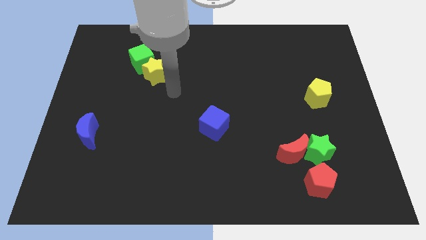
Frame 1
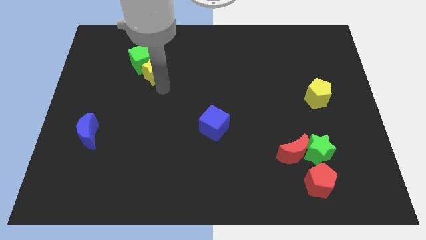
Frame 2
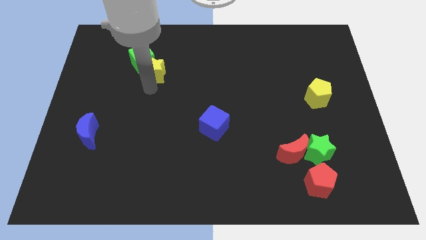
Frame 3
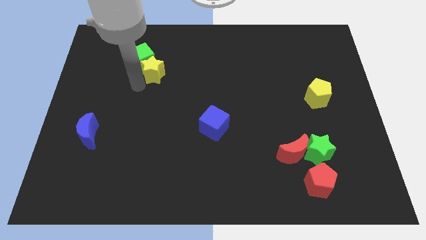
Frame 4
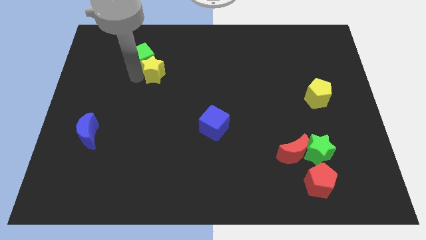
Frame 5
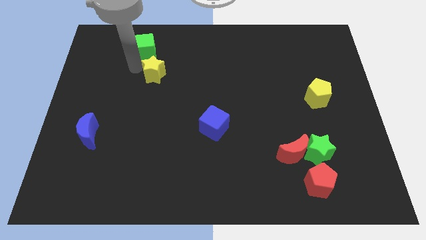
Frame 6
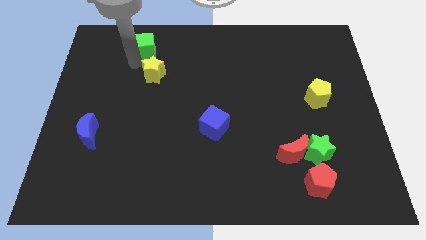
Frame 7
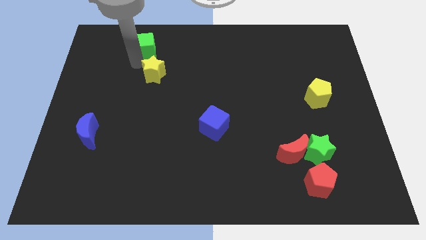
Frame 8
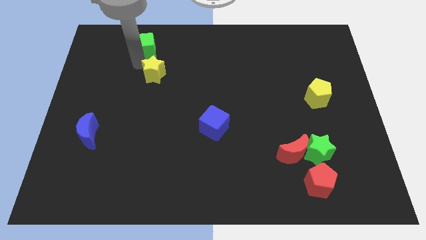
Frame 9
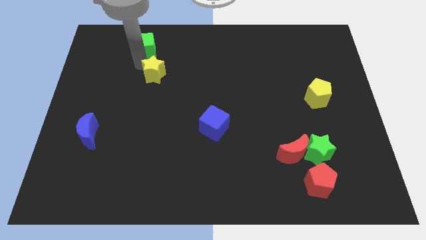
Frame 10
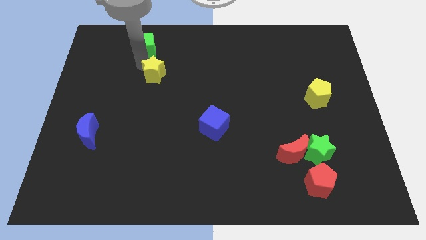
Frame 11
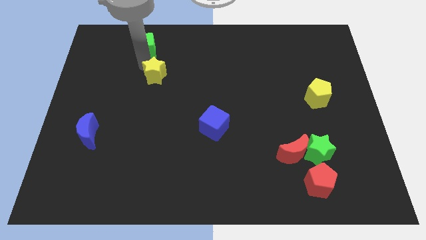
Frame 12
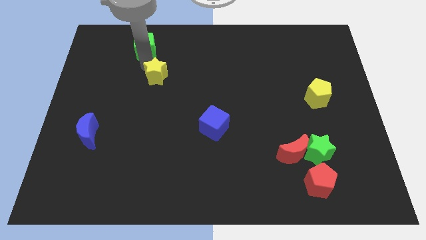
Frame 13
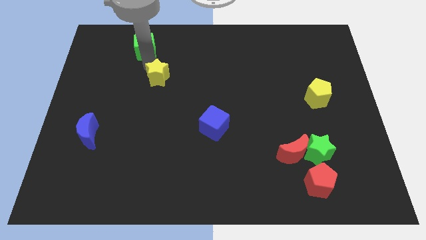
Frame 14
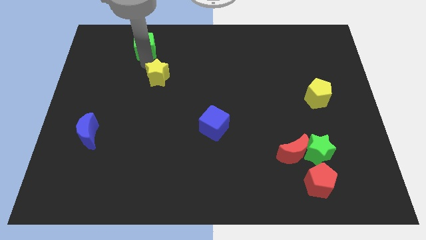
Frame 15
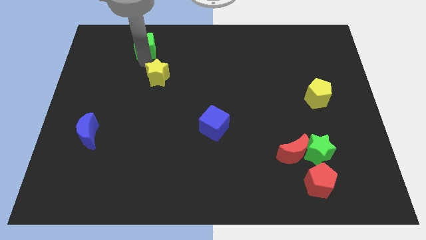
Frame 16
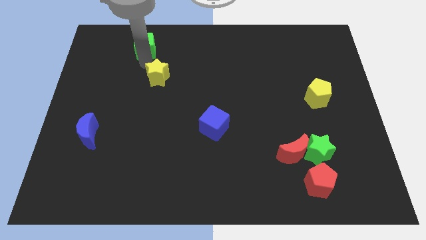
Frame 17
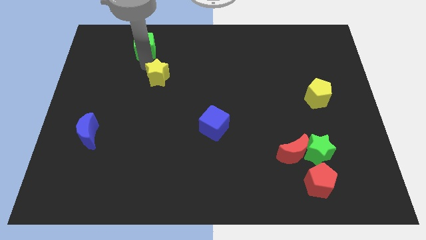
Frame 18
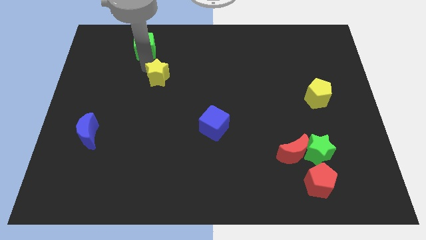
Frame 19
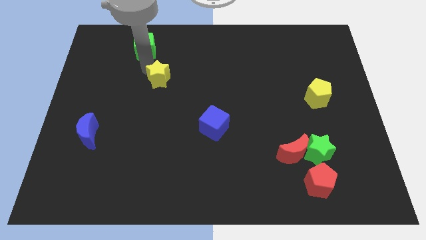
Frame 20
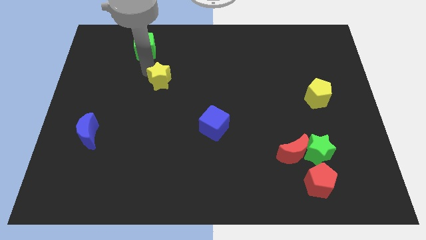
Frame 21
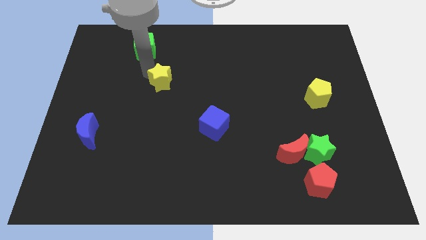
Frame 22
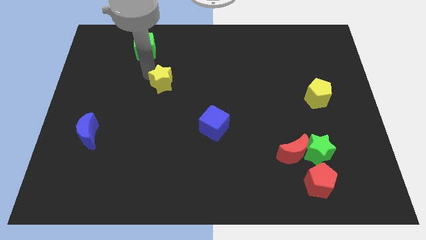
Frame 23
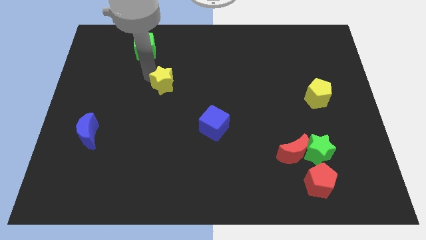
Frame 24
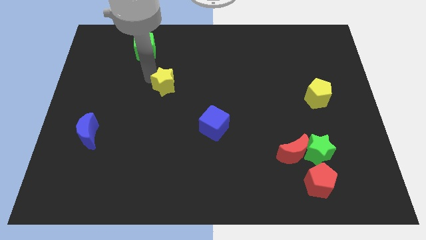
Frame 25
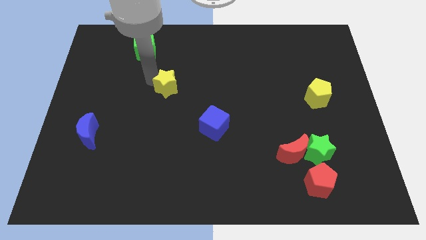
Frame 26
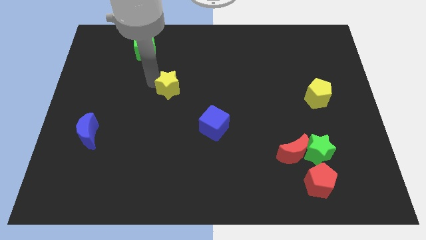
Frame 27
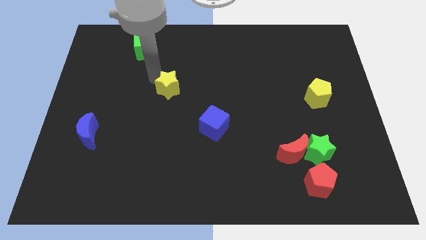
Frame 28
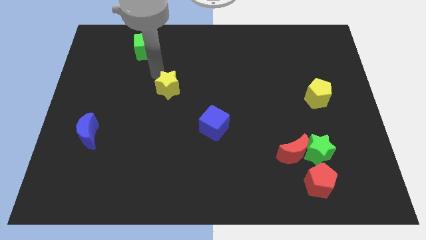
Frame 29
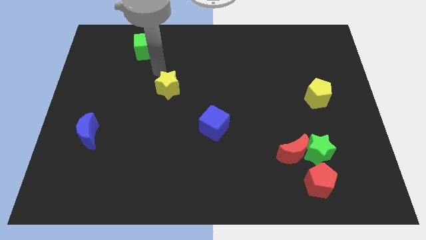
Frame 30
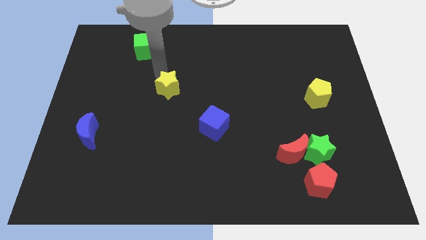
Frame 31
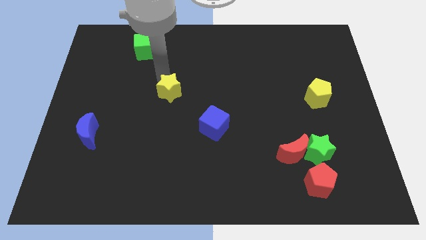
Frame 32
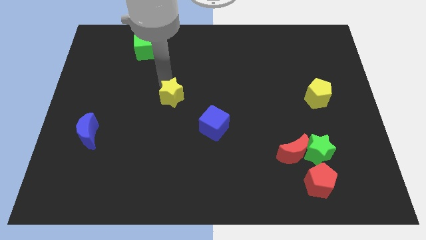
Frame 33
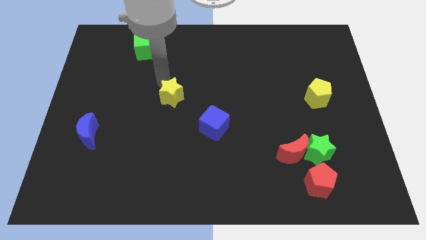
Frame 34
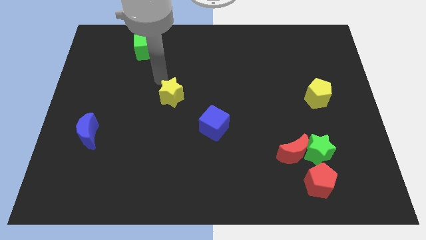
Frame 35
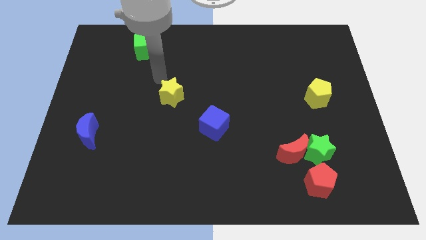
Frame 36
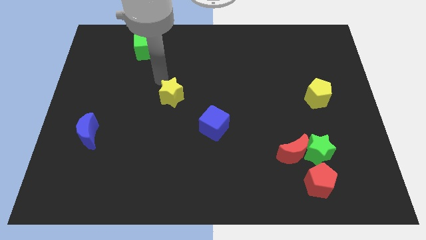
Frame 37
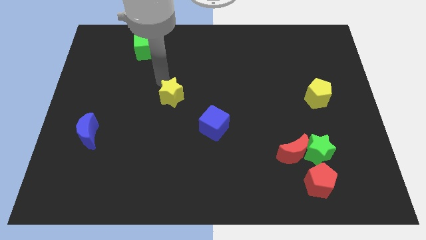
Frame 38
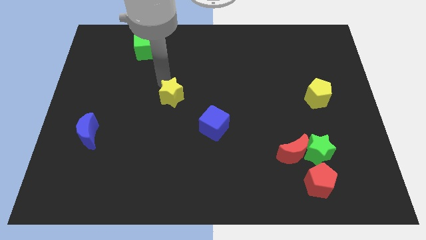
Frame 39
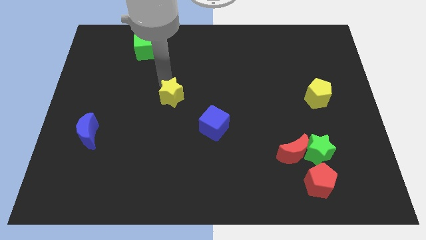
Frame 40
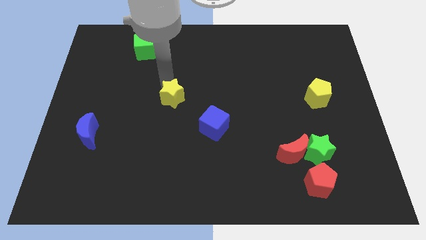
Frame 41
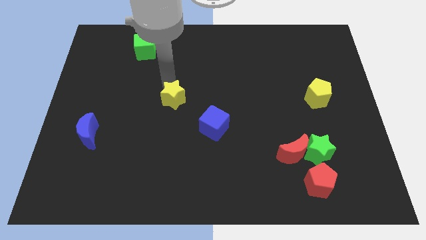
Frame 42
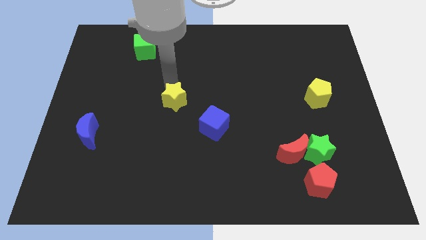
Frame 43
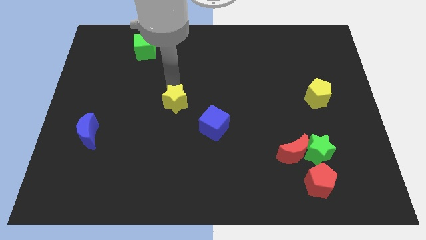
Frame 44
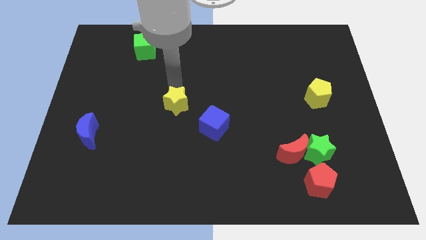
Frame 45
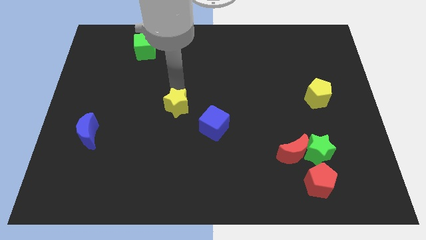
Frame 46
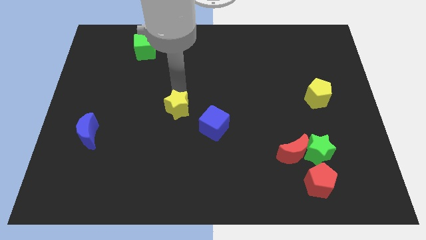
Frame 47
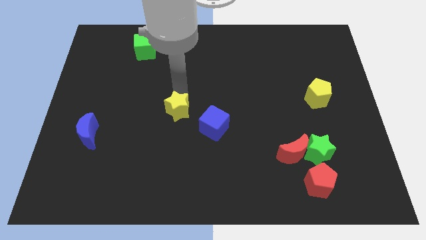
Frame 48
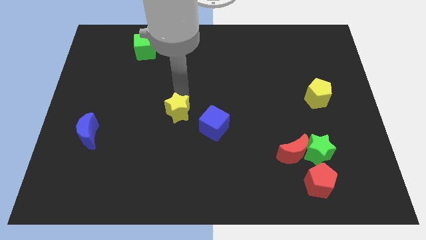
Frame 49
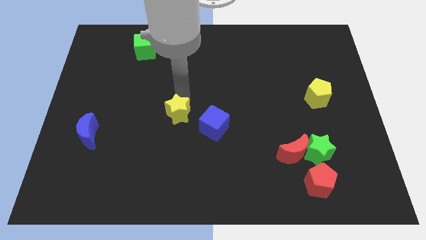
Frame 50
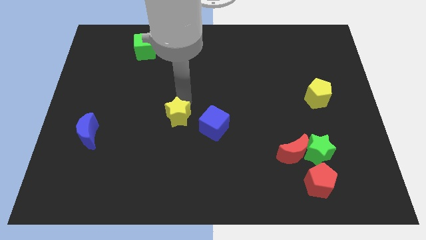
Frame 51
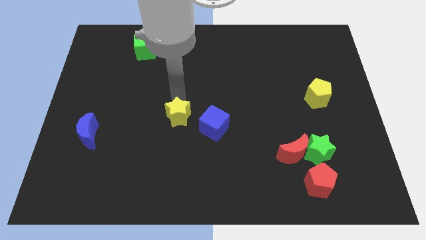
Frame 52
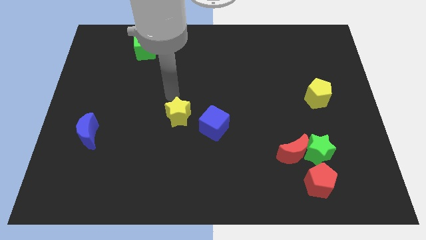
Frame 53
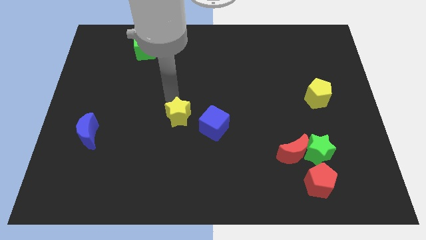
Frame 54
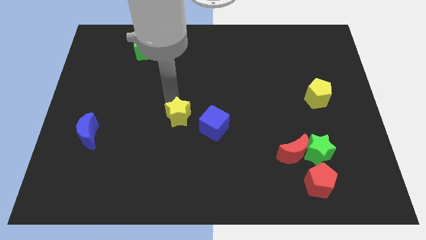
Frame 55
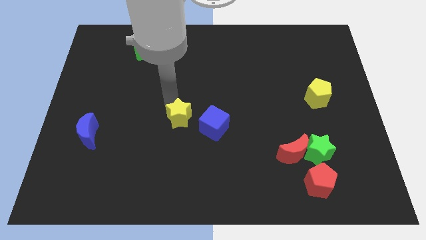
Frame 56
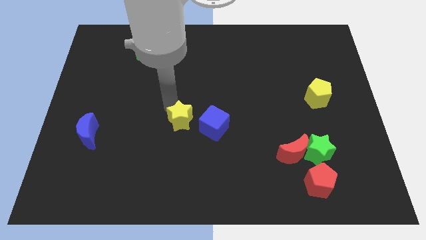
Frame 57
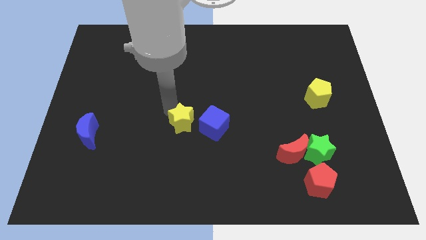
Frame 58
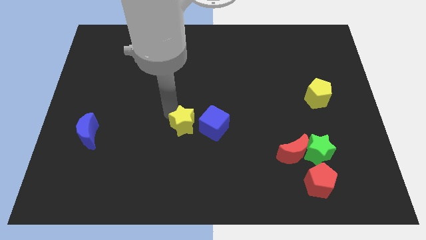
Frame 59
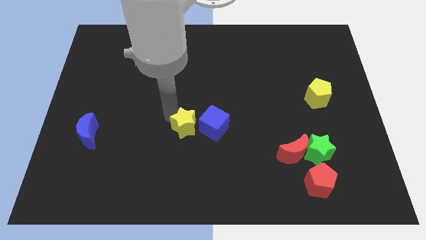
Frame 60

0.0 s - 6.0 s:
slide the yellow star to the bottom left of the blue cube

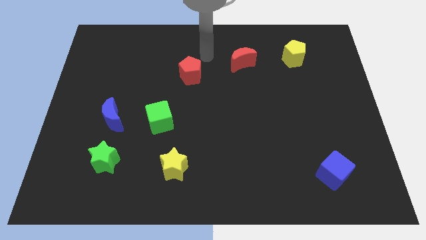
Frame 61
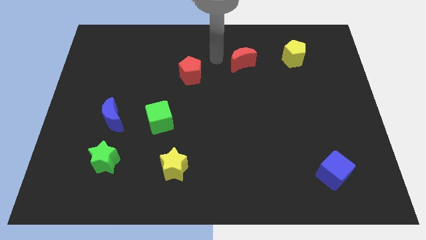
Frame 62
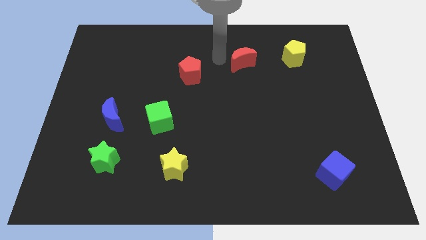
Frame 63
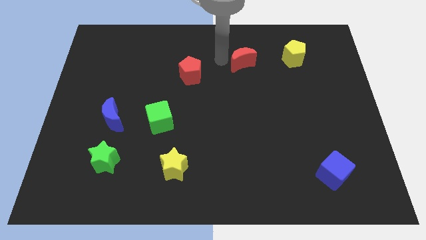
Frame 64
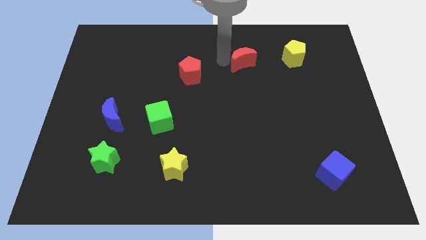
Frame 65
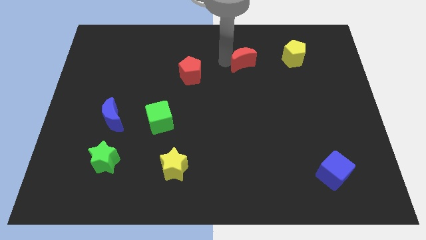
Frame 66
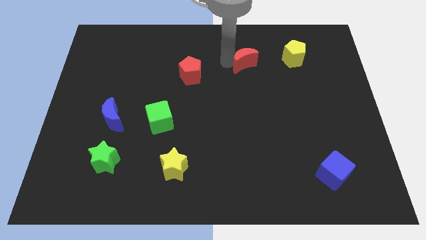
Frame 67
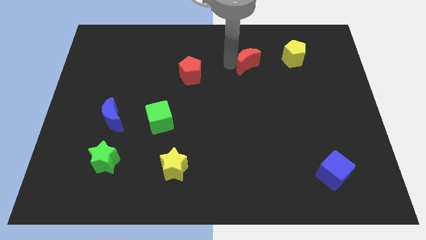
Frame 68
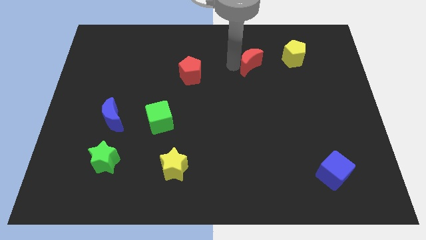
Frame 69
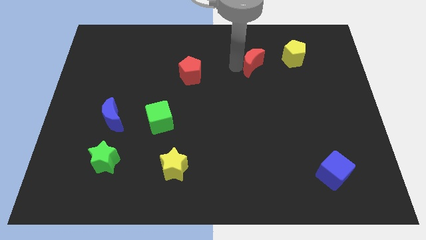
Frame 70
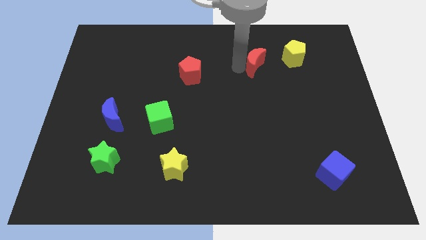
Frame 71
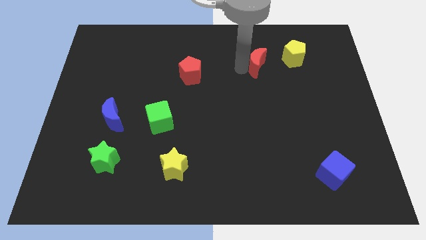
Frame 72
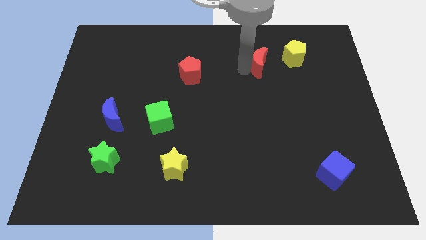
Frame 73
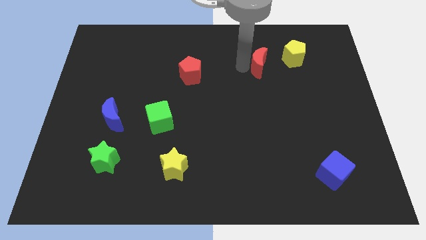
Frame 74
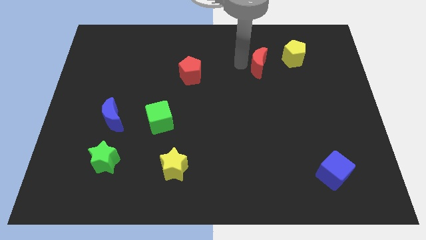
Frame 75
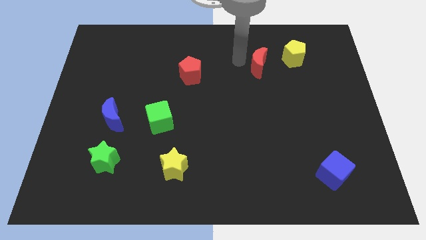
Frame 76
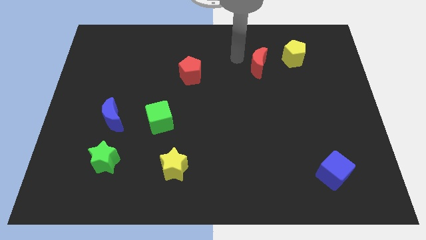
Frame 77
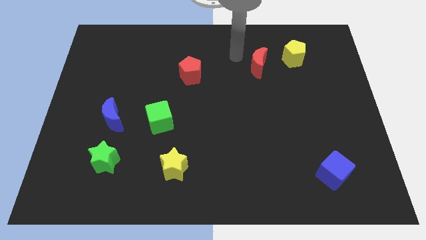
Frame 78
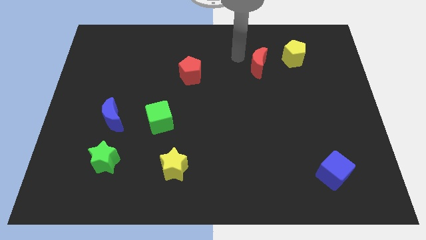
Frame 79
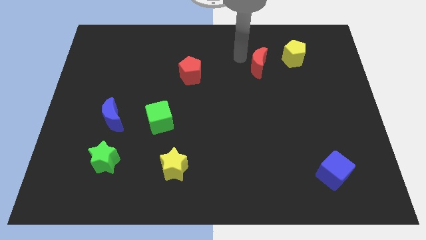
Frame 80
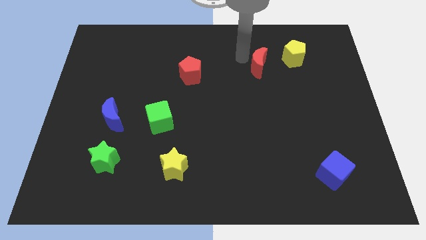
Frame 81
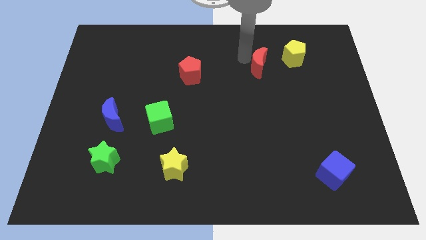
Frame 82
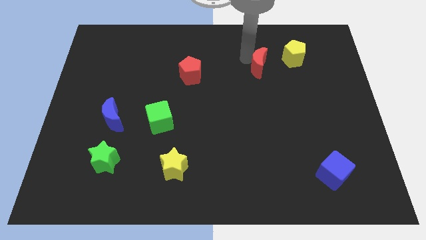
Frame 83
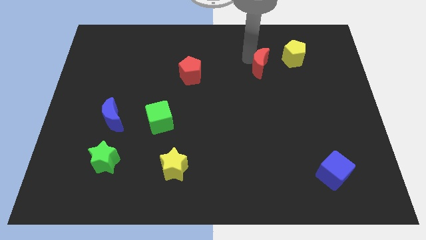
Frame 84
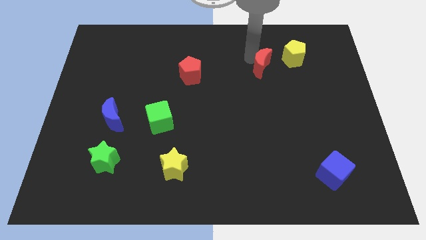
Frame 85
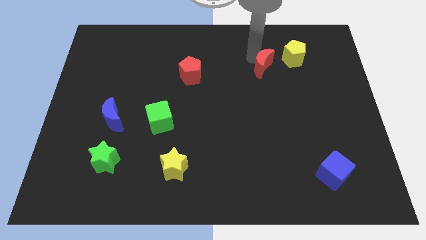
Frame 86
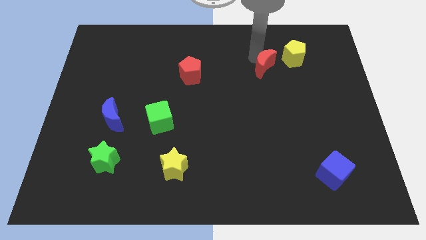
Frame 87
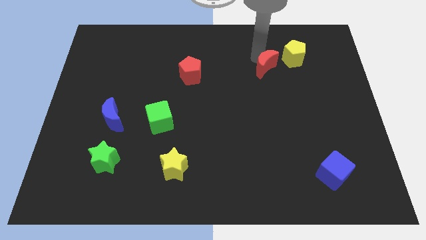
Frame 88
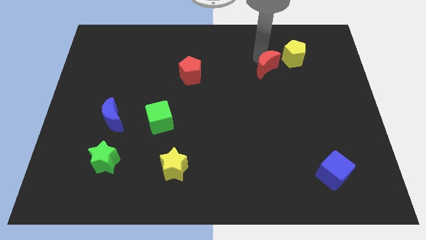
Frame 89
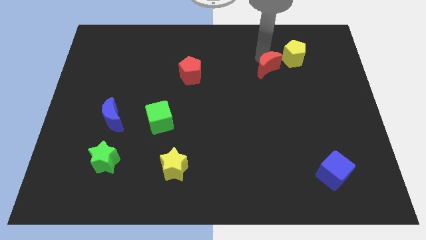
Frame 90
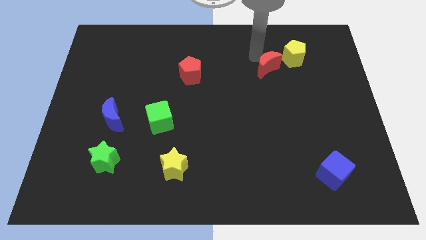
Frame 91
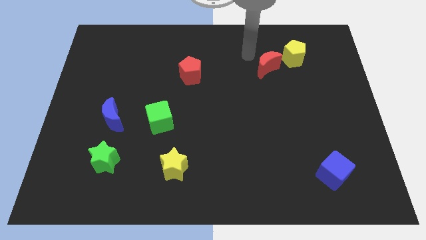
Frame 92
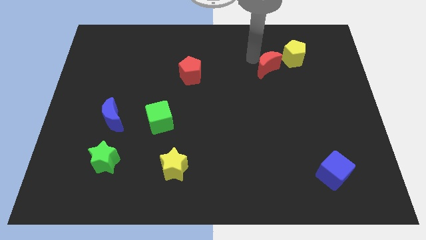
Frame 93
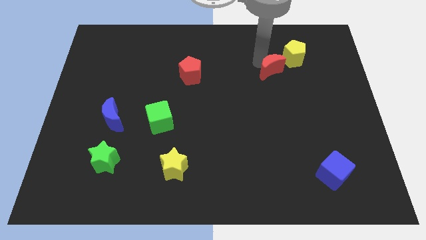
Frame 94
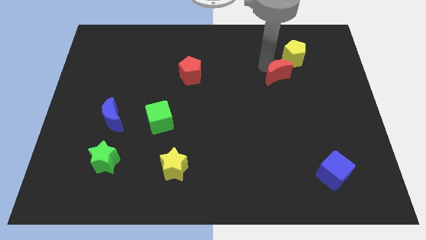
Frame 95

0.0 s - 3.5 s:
slide the red moon below the yellow pentagon
